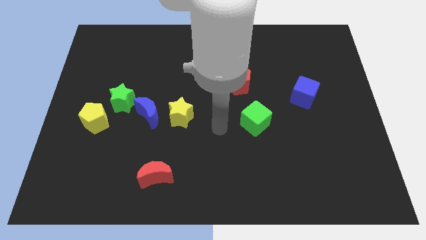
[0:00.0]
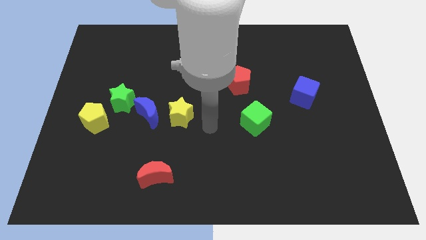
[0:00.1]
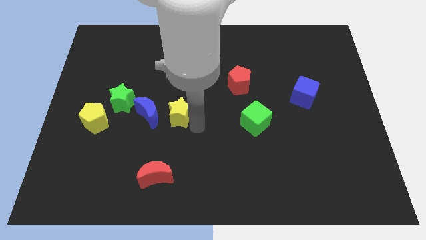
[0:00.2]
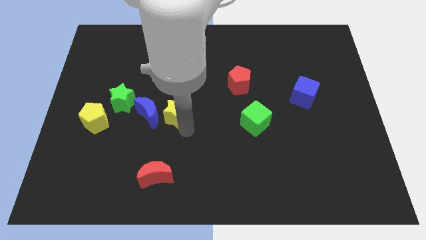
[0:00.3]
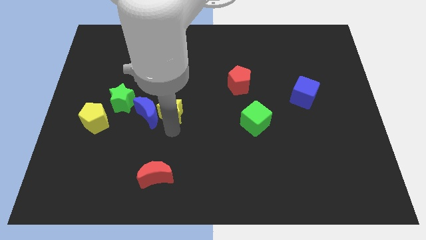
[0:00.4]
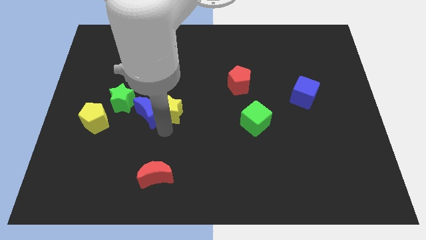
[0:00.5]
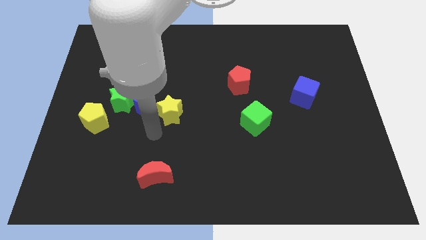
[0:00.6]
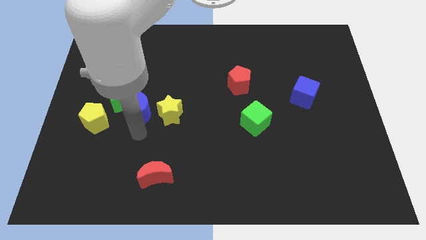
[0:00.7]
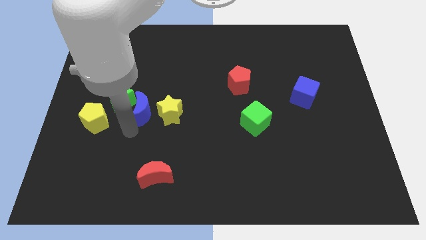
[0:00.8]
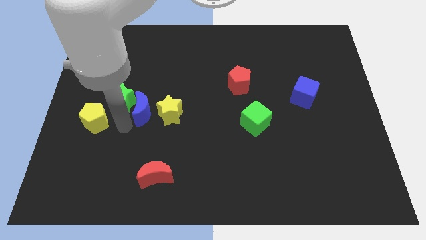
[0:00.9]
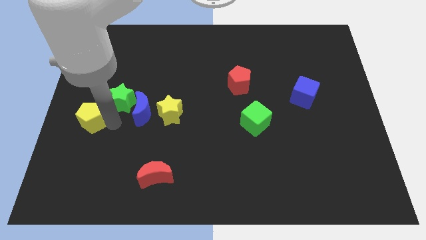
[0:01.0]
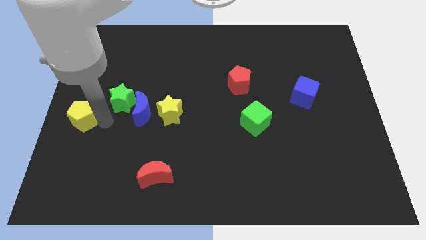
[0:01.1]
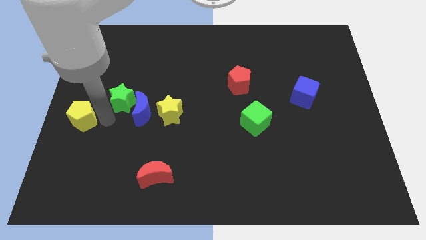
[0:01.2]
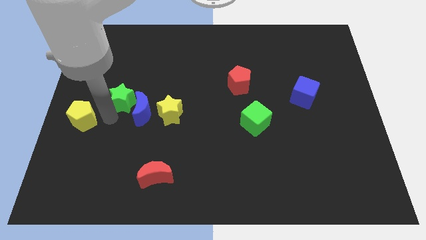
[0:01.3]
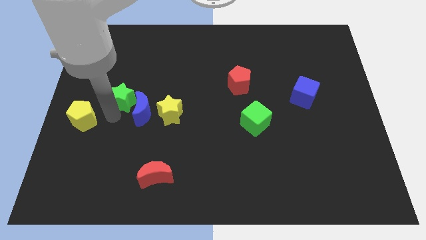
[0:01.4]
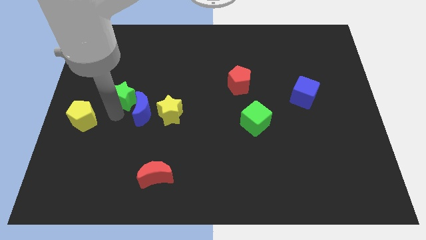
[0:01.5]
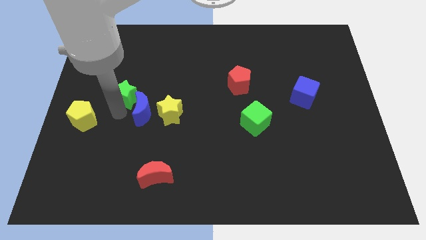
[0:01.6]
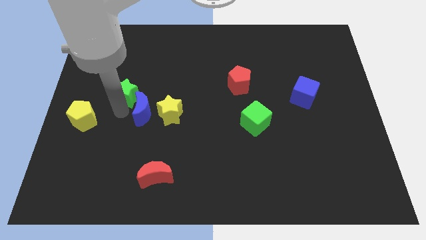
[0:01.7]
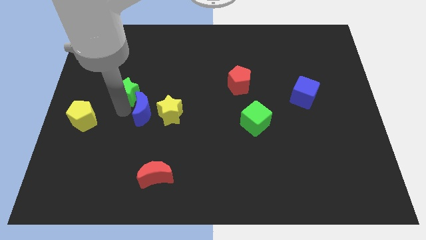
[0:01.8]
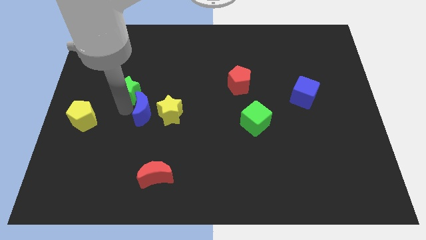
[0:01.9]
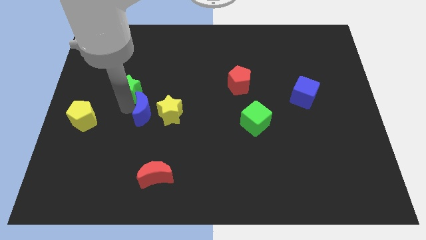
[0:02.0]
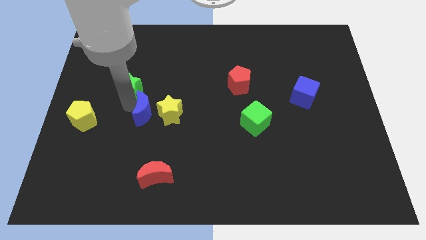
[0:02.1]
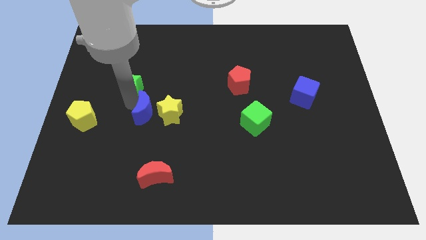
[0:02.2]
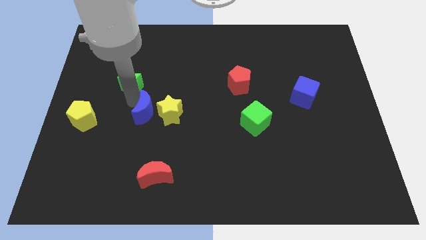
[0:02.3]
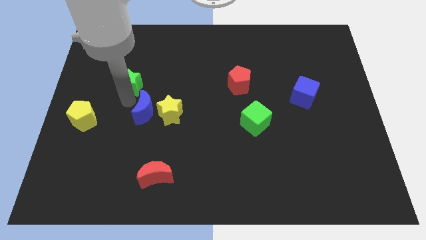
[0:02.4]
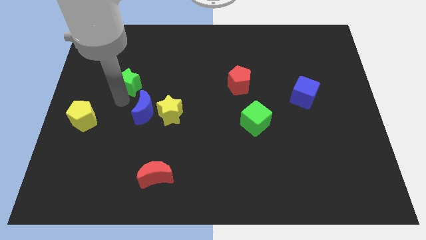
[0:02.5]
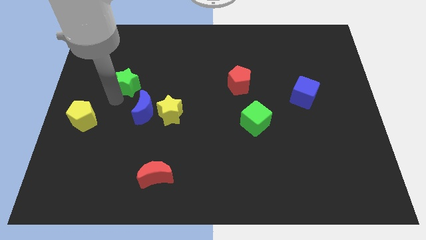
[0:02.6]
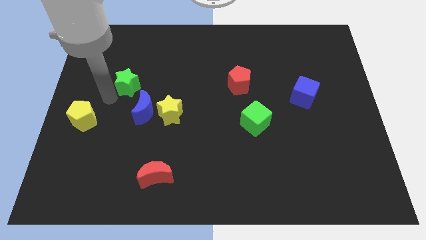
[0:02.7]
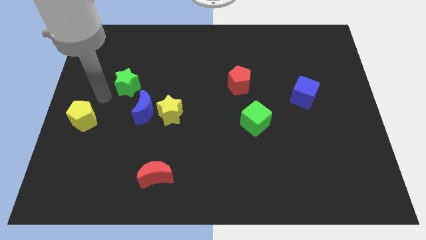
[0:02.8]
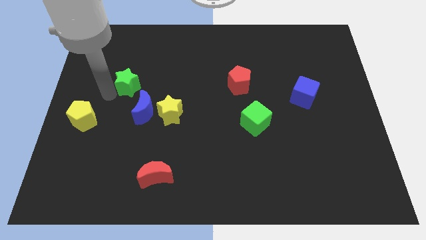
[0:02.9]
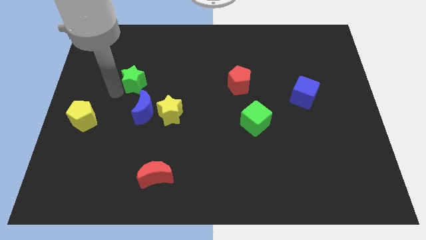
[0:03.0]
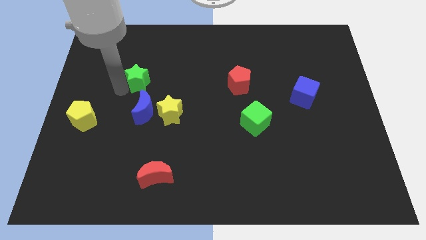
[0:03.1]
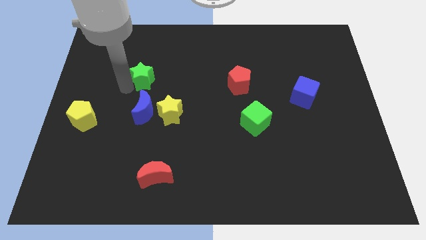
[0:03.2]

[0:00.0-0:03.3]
slightly move the green star diagonally upwards and to the right

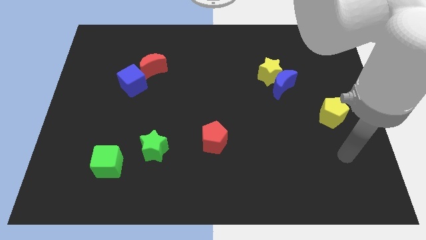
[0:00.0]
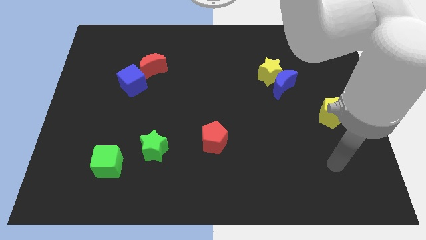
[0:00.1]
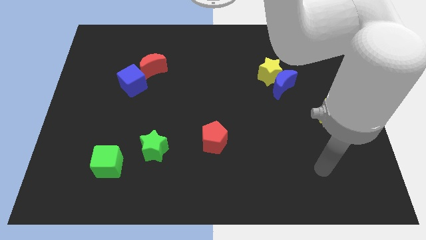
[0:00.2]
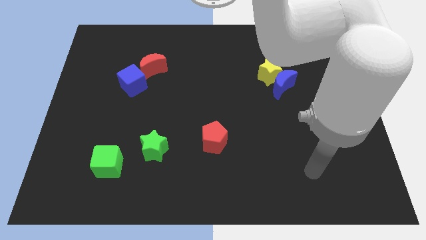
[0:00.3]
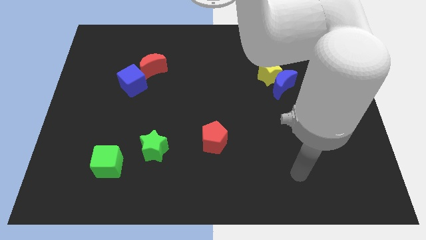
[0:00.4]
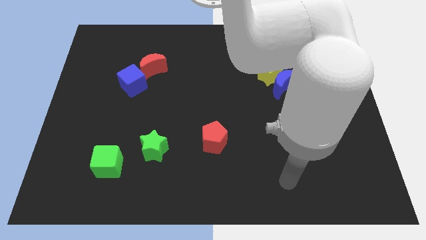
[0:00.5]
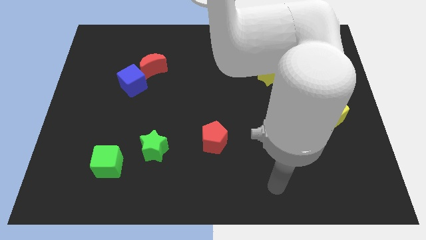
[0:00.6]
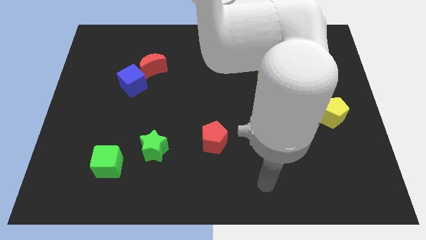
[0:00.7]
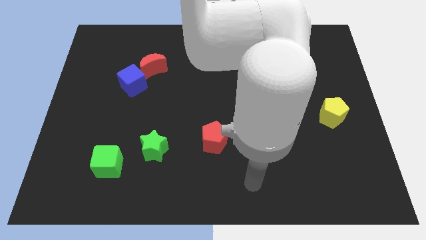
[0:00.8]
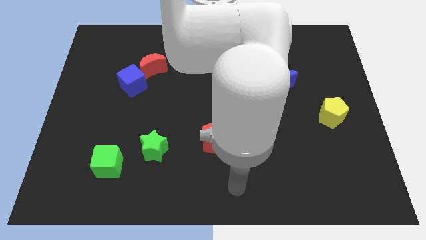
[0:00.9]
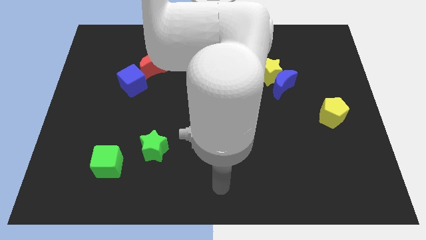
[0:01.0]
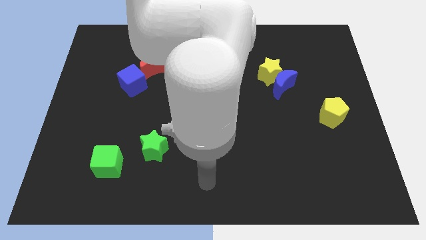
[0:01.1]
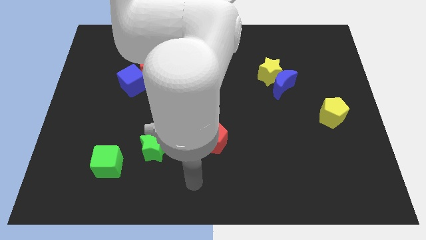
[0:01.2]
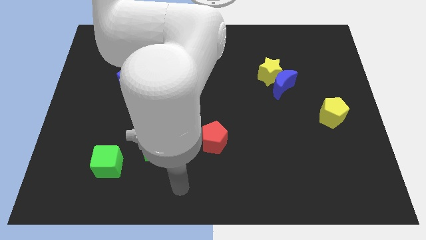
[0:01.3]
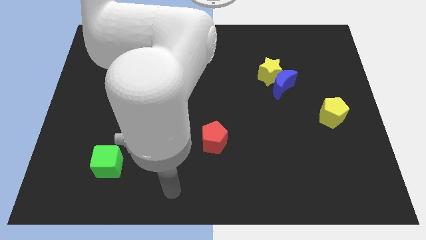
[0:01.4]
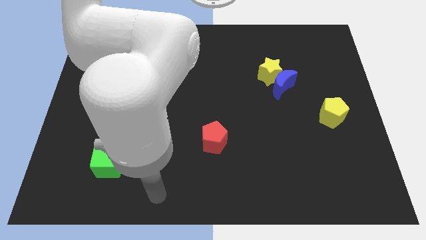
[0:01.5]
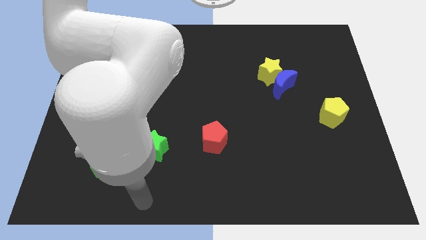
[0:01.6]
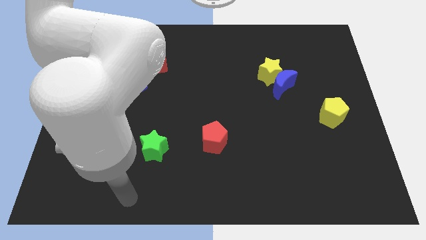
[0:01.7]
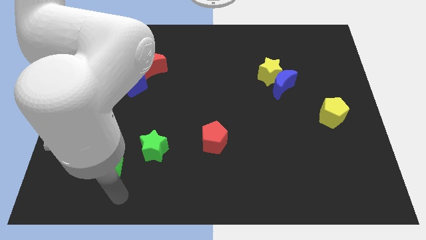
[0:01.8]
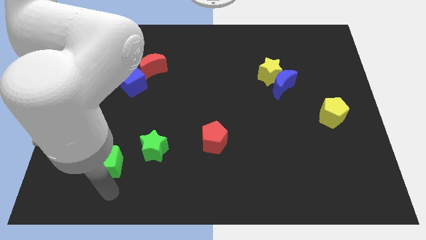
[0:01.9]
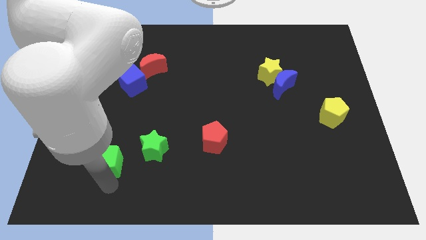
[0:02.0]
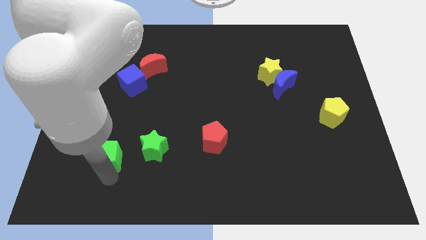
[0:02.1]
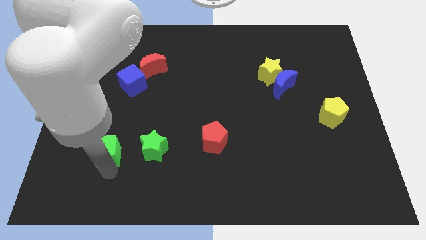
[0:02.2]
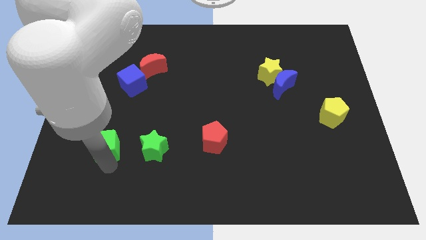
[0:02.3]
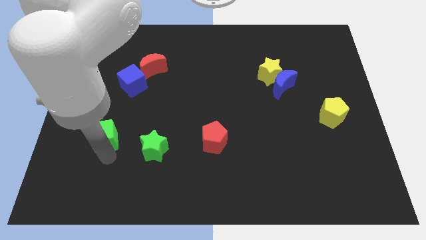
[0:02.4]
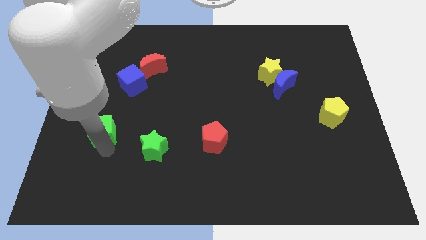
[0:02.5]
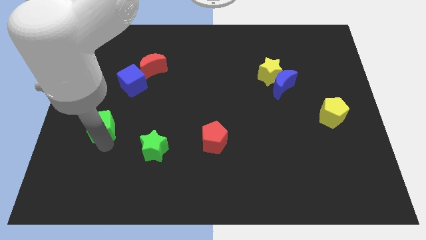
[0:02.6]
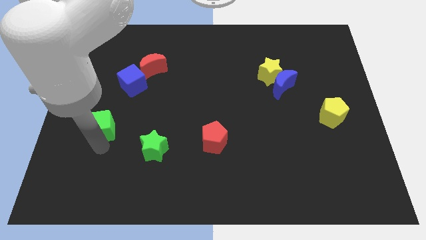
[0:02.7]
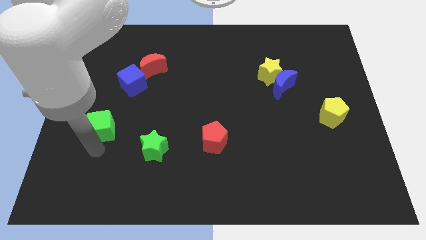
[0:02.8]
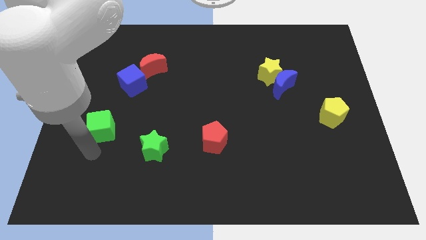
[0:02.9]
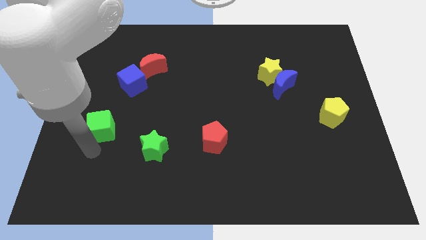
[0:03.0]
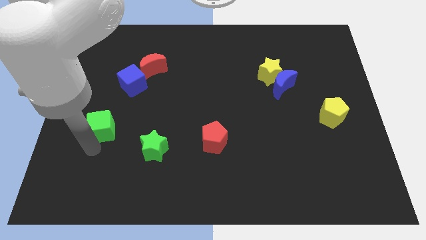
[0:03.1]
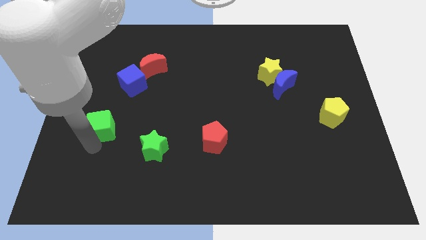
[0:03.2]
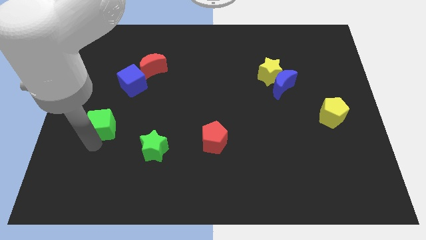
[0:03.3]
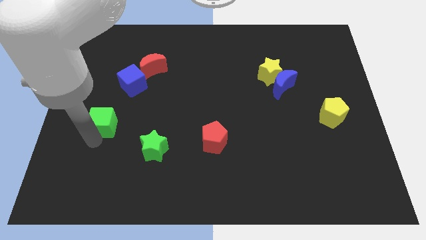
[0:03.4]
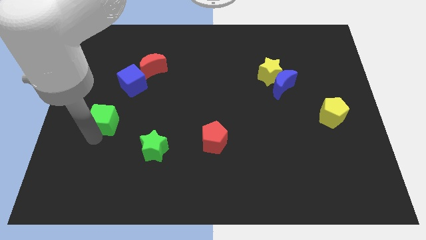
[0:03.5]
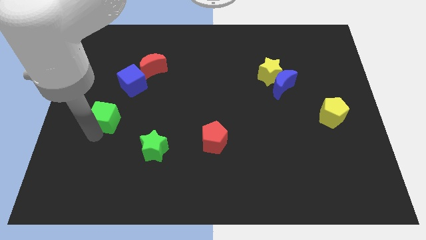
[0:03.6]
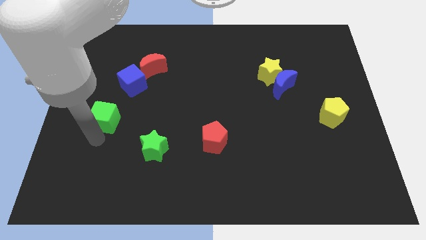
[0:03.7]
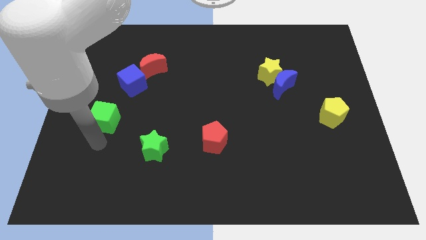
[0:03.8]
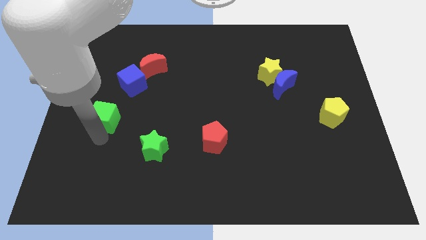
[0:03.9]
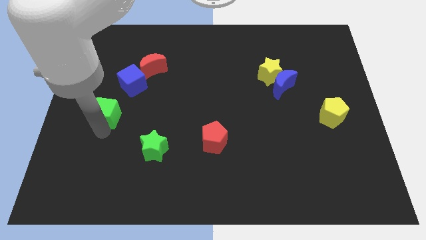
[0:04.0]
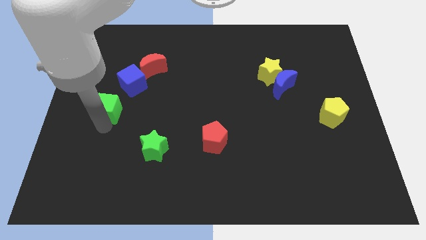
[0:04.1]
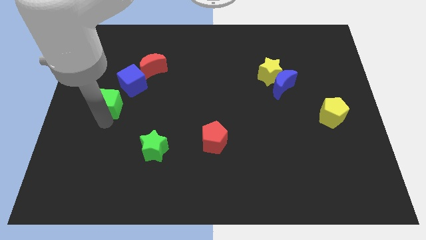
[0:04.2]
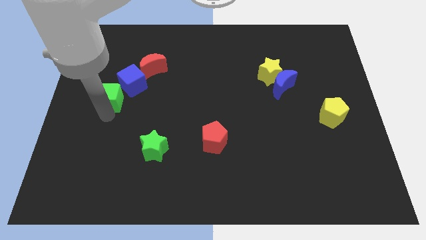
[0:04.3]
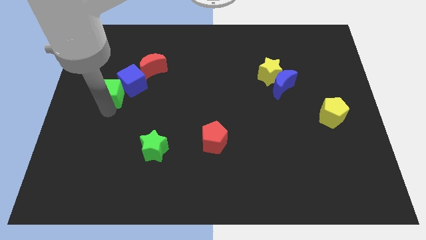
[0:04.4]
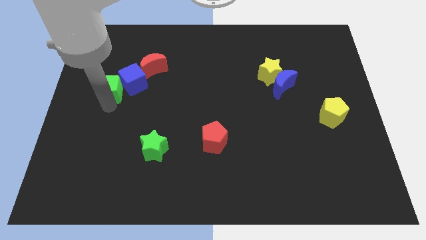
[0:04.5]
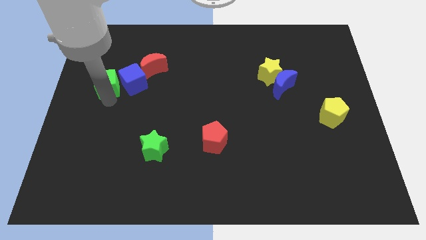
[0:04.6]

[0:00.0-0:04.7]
move the green cube upwards

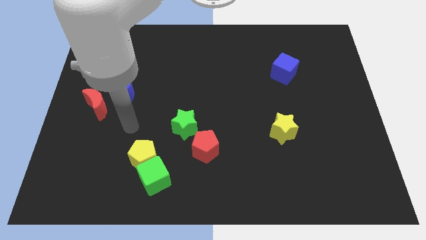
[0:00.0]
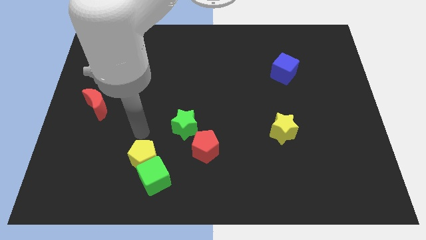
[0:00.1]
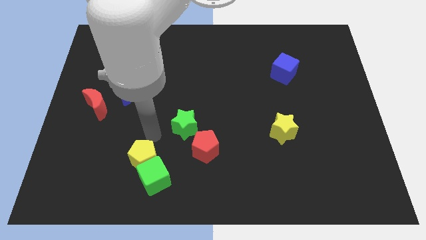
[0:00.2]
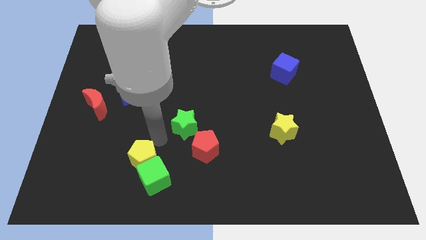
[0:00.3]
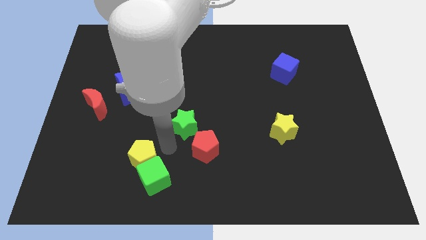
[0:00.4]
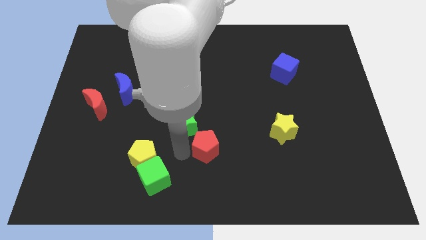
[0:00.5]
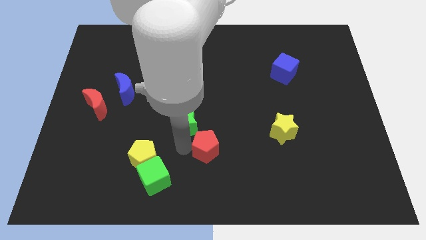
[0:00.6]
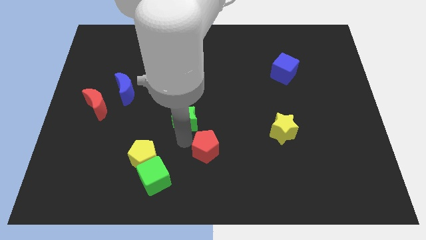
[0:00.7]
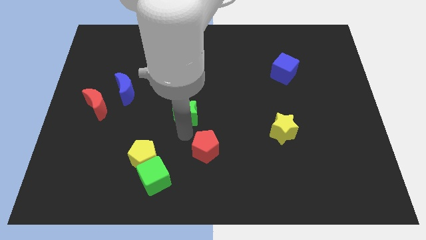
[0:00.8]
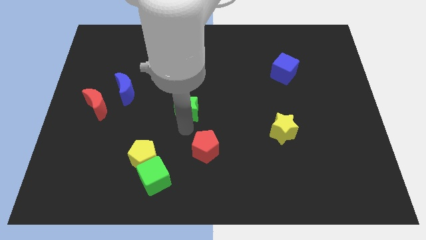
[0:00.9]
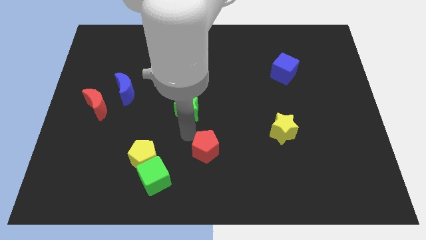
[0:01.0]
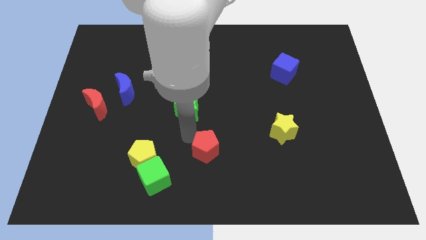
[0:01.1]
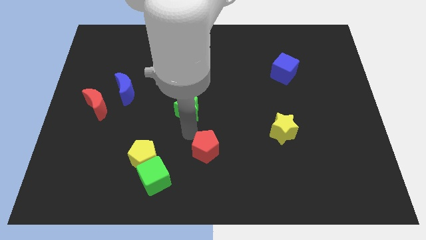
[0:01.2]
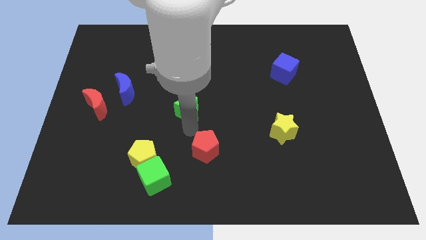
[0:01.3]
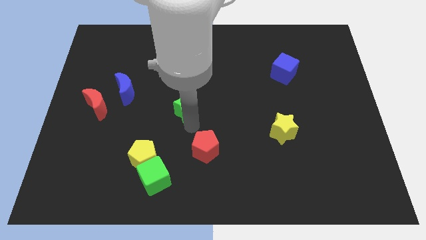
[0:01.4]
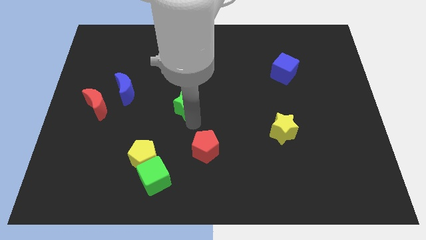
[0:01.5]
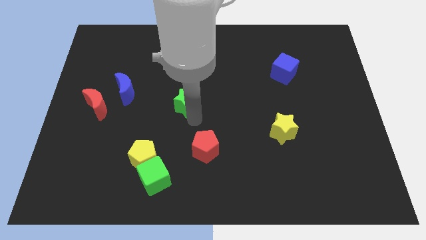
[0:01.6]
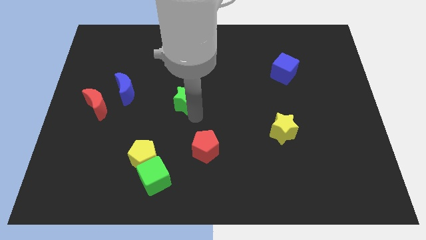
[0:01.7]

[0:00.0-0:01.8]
slide the green star a little bit upwards
